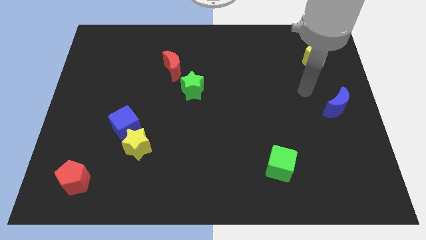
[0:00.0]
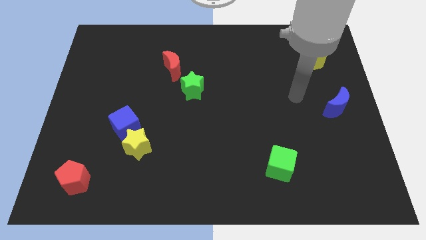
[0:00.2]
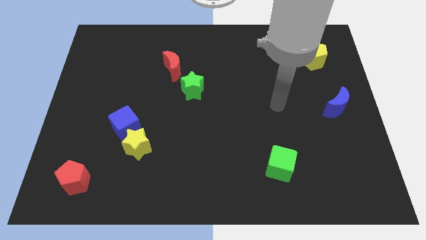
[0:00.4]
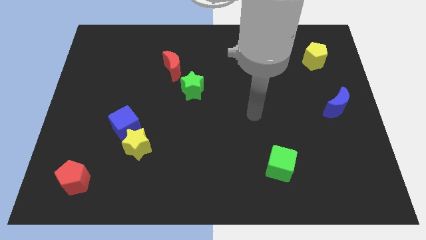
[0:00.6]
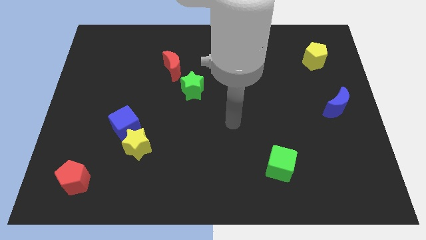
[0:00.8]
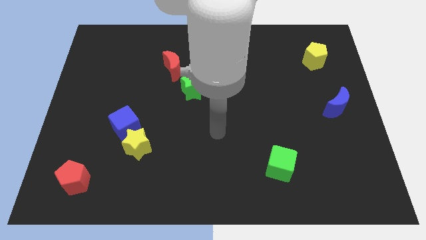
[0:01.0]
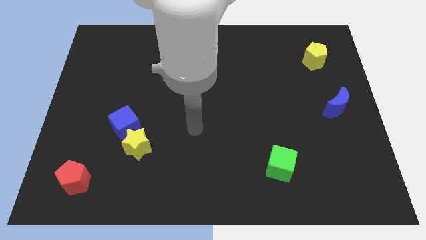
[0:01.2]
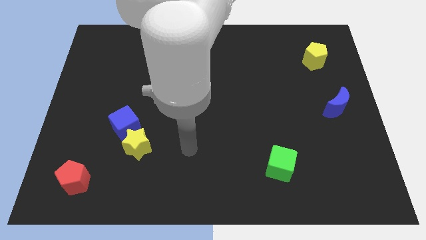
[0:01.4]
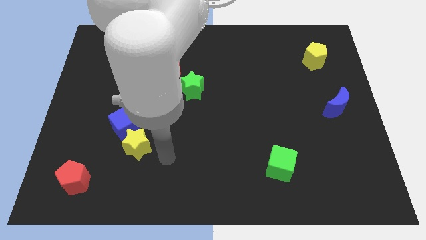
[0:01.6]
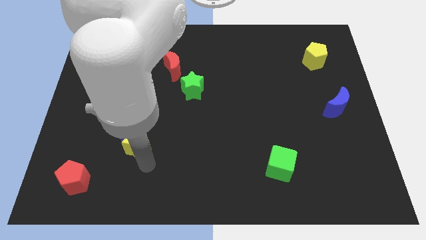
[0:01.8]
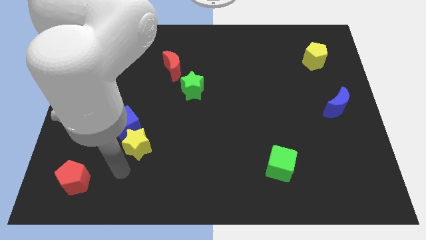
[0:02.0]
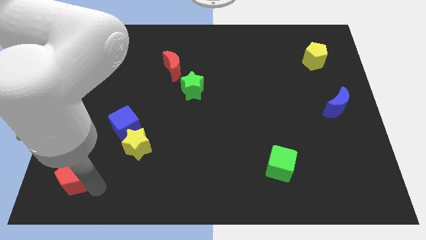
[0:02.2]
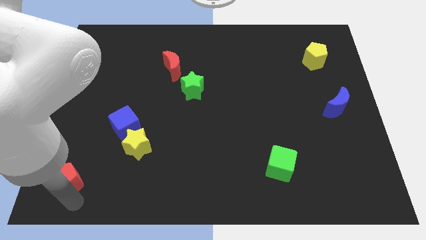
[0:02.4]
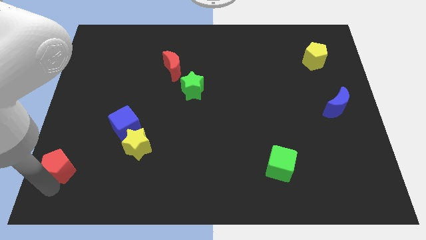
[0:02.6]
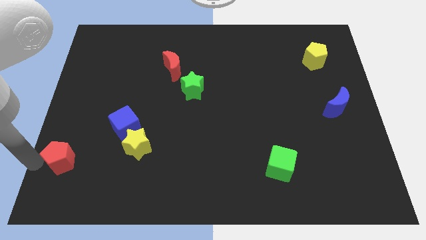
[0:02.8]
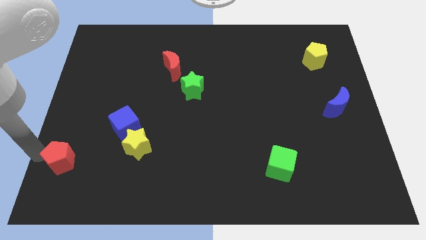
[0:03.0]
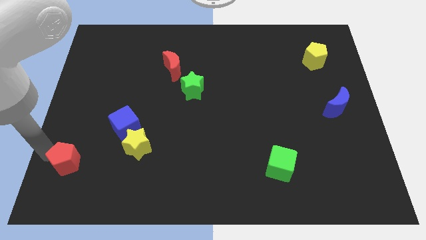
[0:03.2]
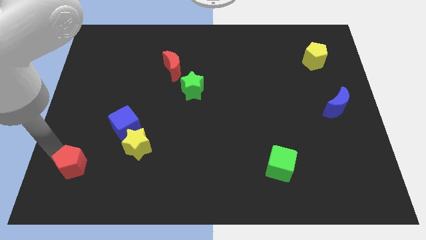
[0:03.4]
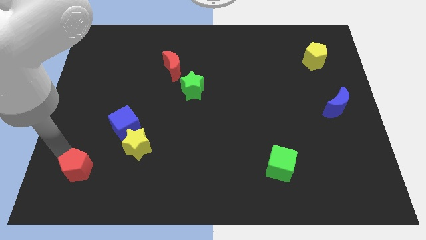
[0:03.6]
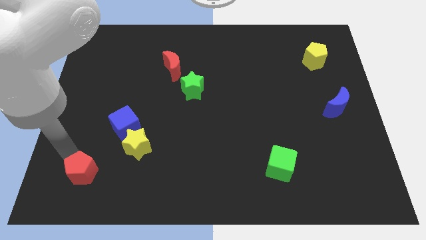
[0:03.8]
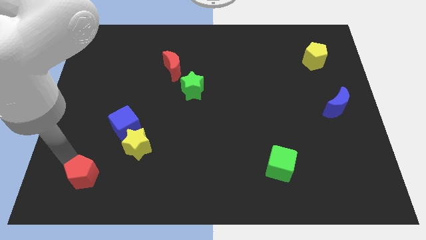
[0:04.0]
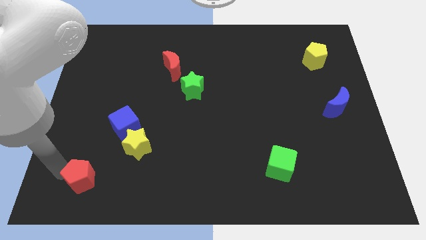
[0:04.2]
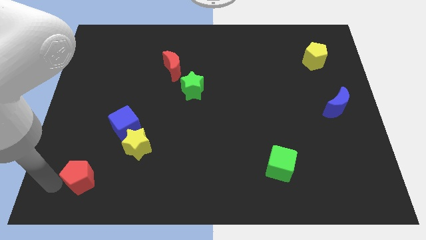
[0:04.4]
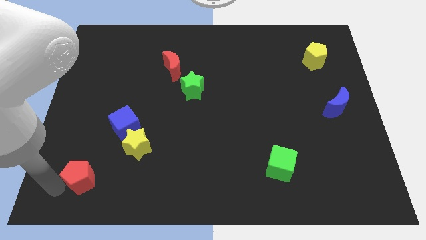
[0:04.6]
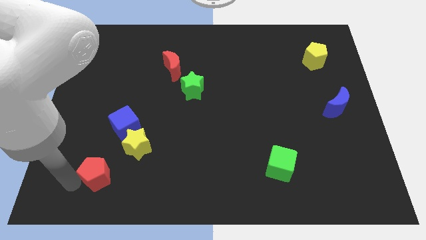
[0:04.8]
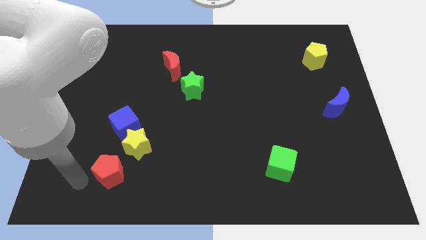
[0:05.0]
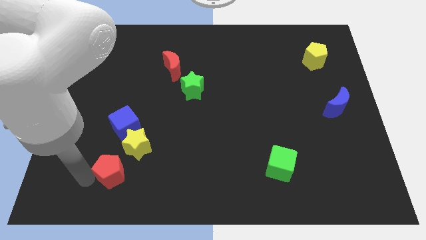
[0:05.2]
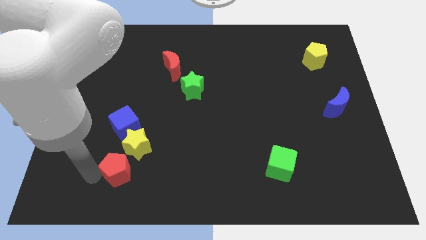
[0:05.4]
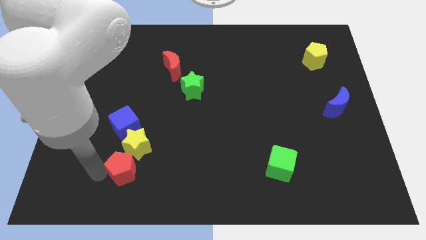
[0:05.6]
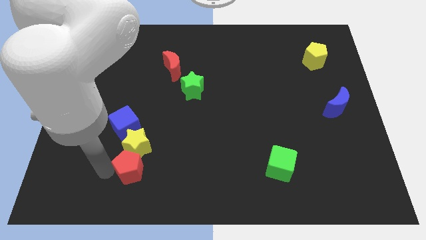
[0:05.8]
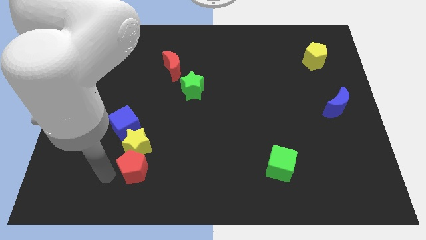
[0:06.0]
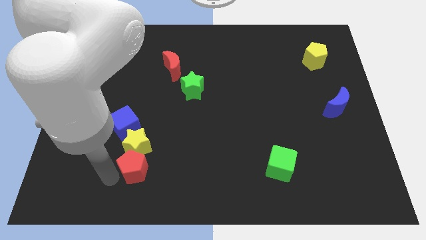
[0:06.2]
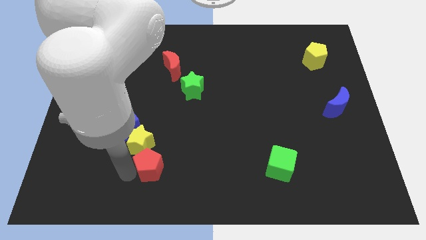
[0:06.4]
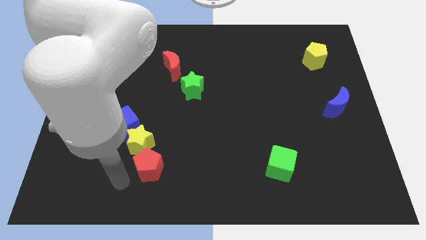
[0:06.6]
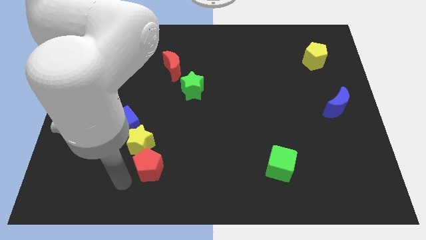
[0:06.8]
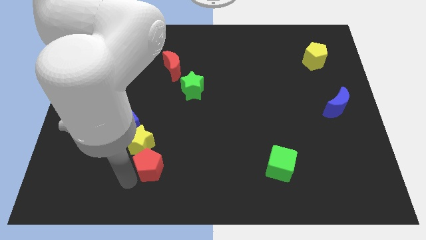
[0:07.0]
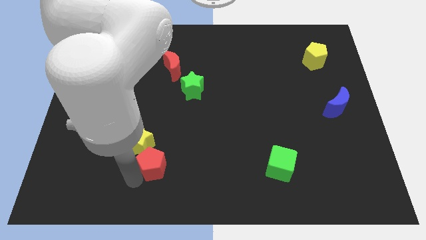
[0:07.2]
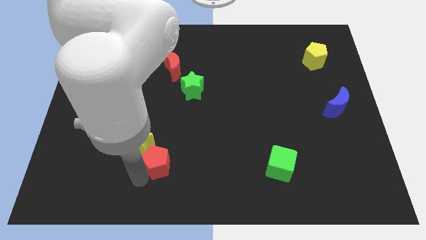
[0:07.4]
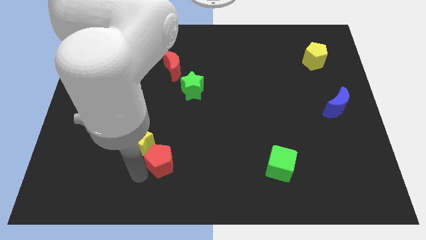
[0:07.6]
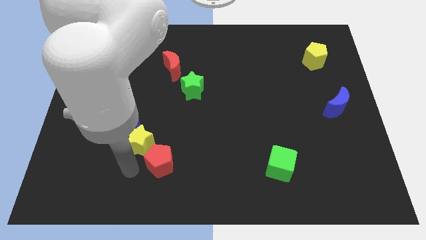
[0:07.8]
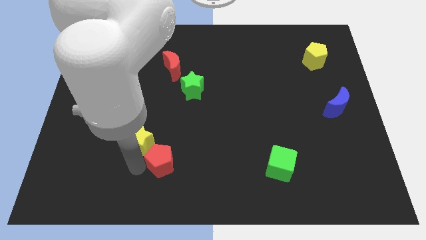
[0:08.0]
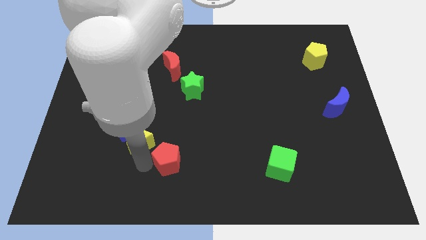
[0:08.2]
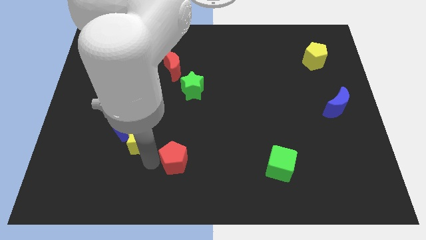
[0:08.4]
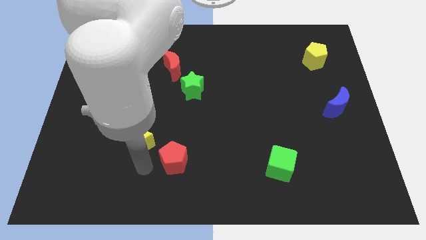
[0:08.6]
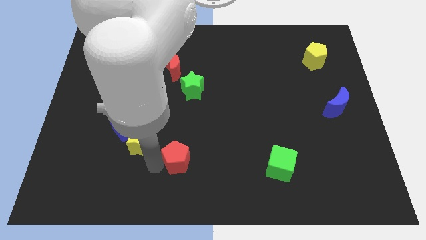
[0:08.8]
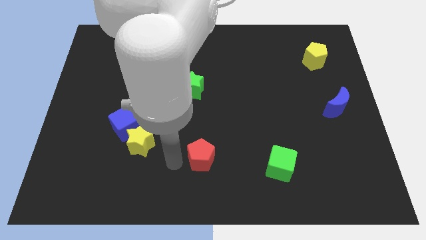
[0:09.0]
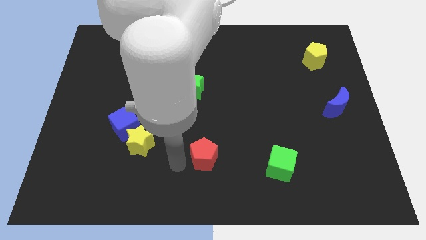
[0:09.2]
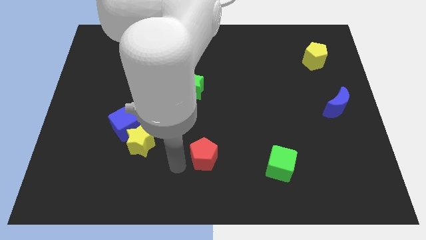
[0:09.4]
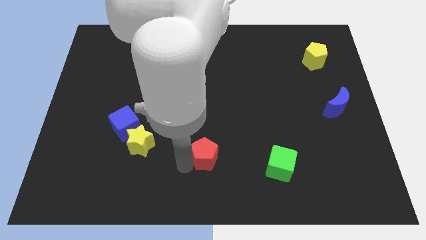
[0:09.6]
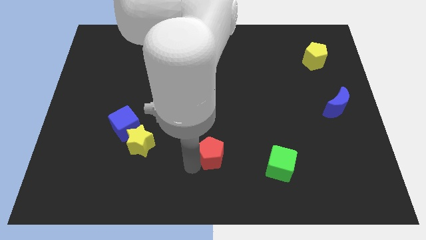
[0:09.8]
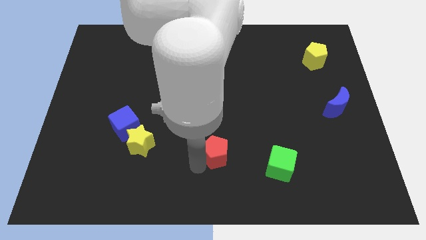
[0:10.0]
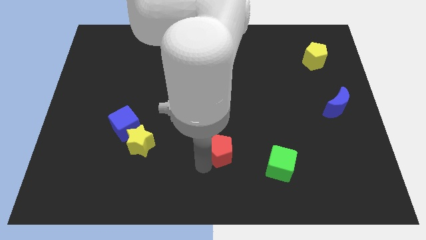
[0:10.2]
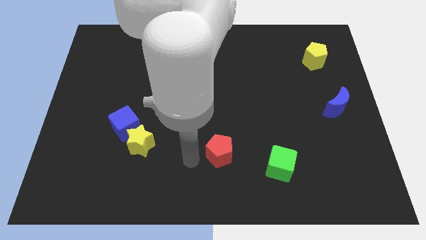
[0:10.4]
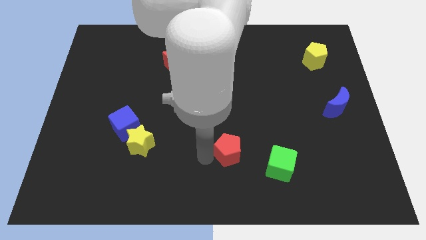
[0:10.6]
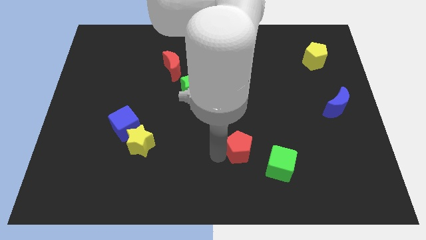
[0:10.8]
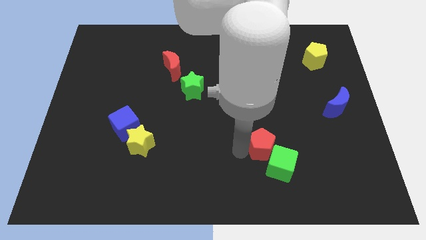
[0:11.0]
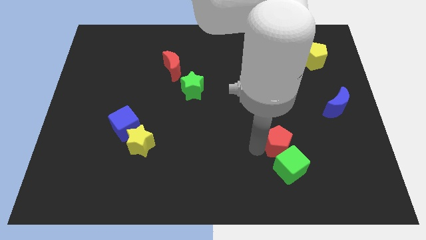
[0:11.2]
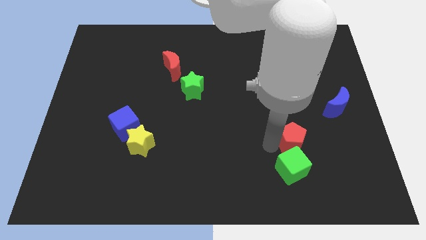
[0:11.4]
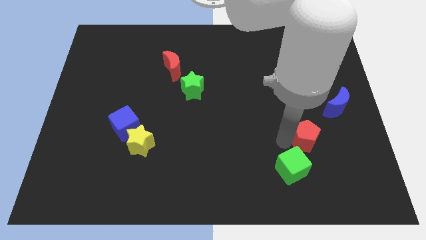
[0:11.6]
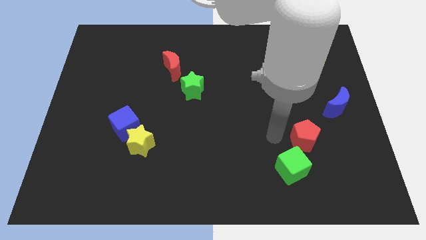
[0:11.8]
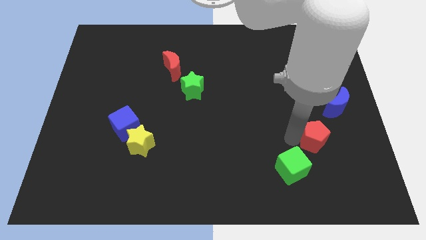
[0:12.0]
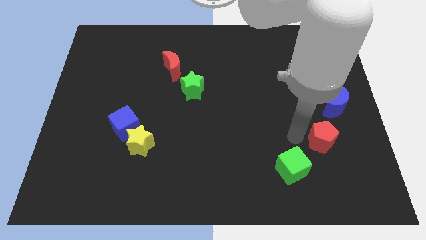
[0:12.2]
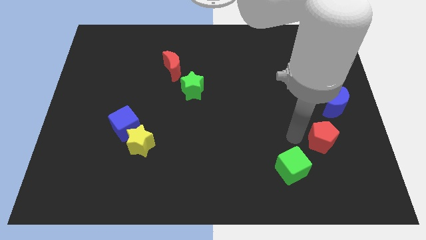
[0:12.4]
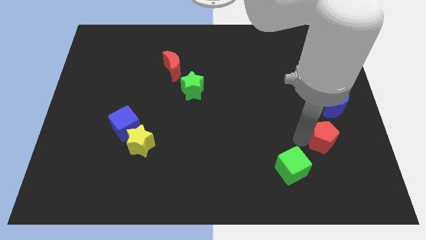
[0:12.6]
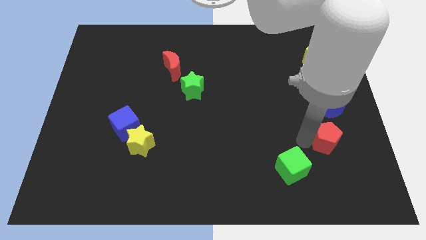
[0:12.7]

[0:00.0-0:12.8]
move the red pentagon to the bottom of the blue moon

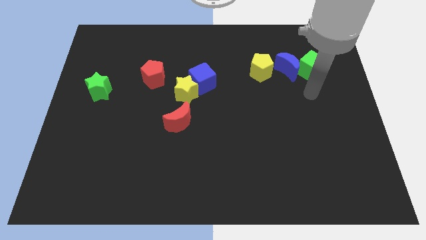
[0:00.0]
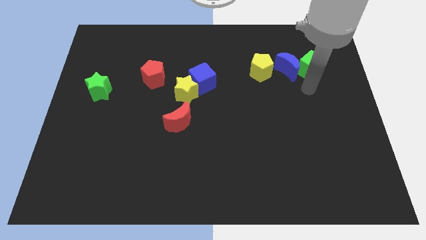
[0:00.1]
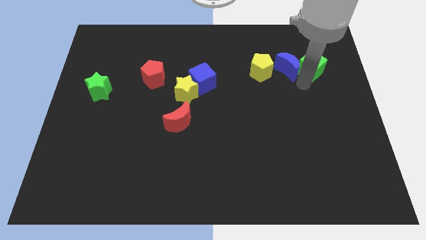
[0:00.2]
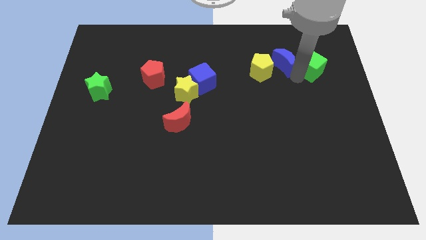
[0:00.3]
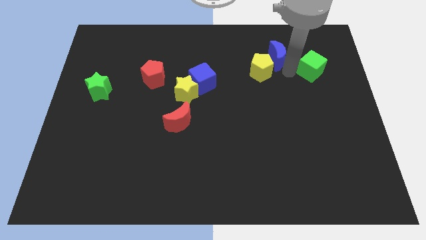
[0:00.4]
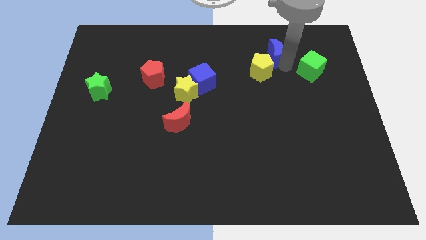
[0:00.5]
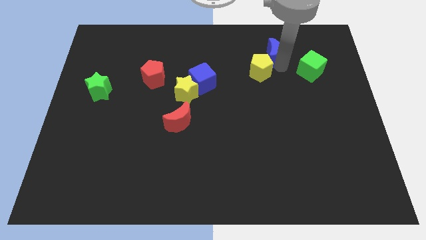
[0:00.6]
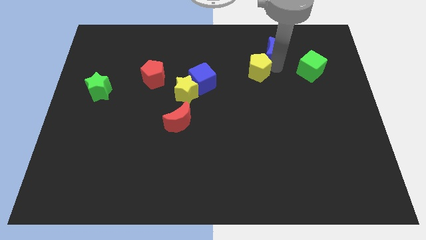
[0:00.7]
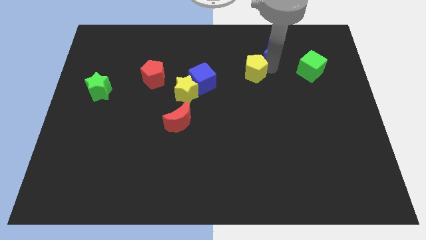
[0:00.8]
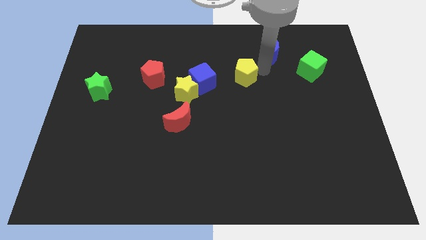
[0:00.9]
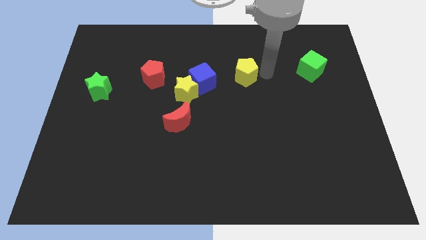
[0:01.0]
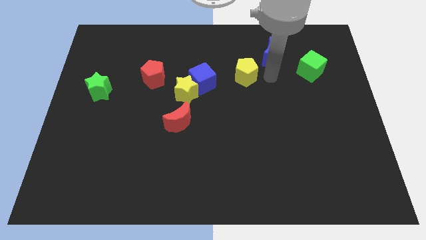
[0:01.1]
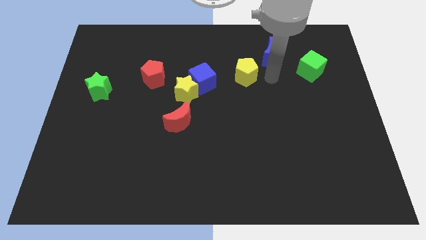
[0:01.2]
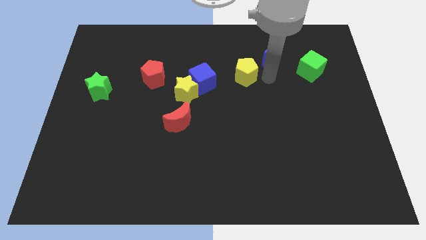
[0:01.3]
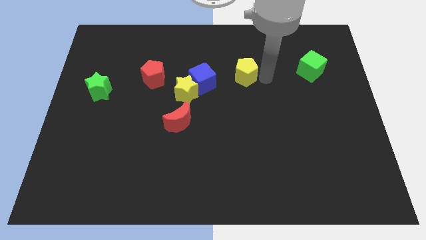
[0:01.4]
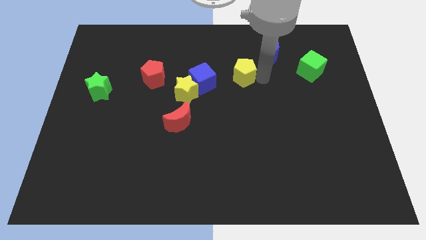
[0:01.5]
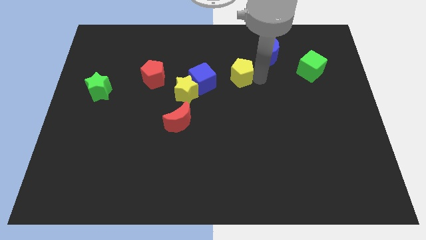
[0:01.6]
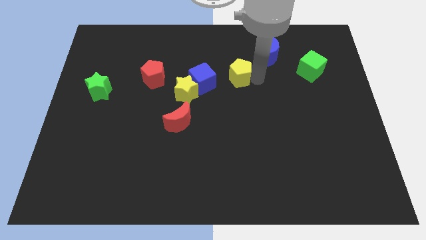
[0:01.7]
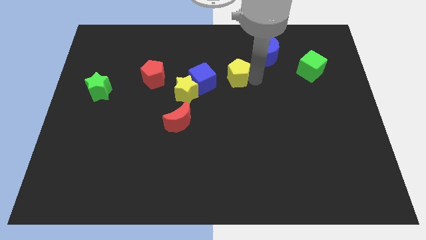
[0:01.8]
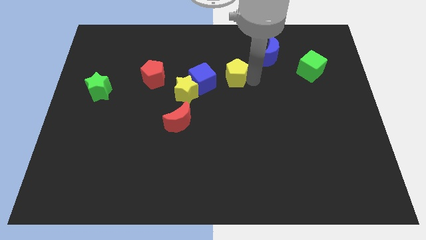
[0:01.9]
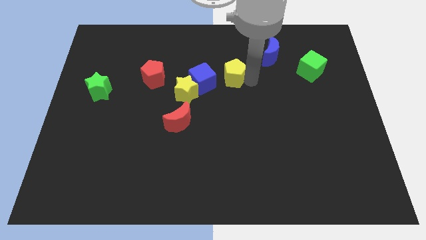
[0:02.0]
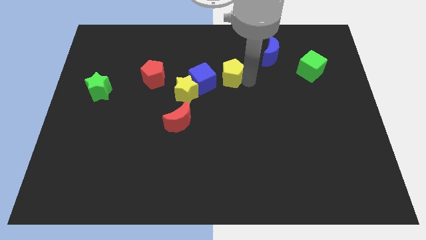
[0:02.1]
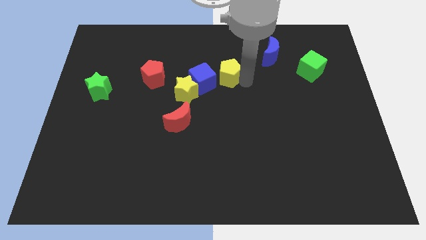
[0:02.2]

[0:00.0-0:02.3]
push the yellow pentagon to the top right side of the yellow star
